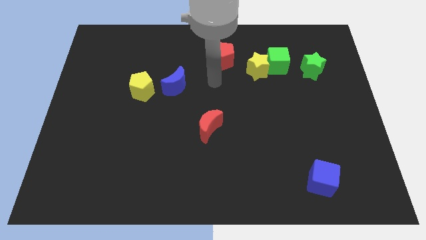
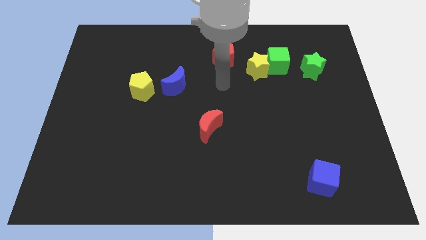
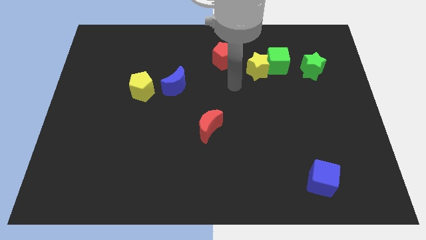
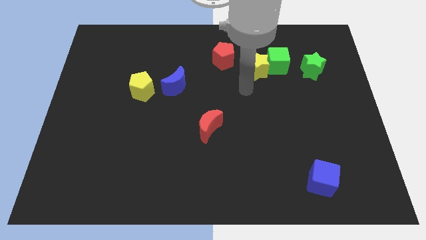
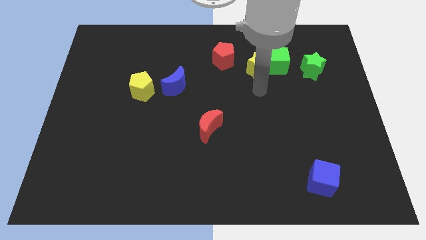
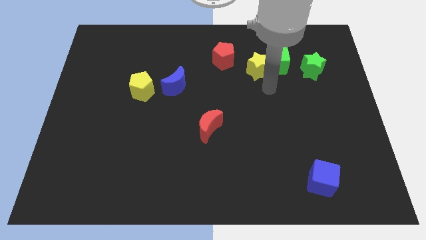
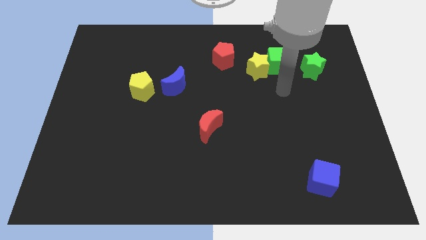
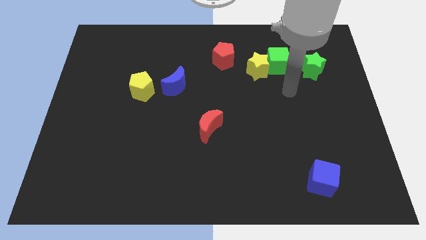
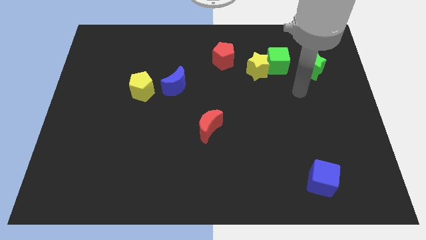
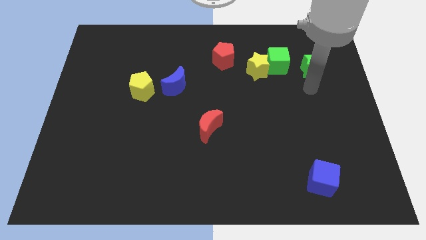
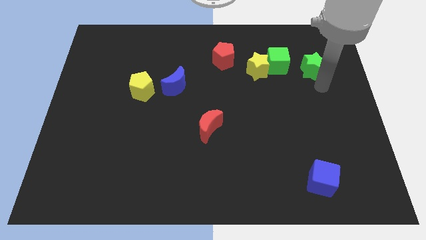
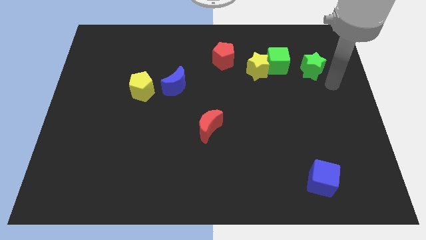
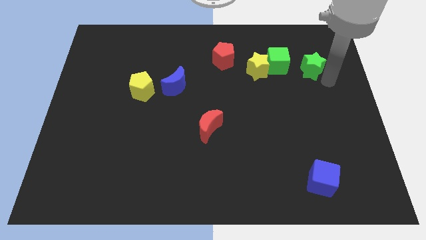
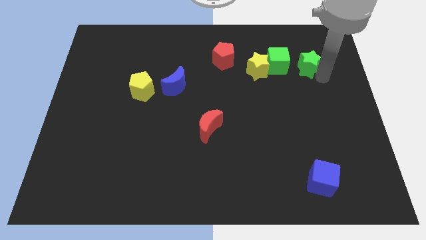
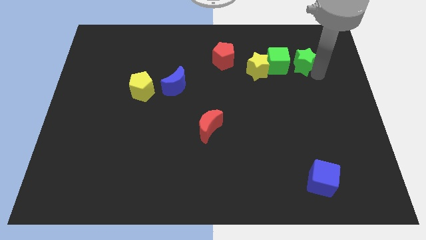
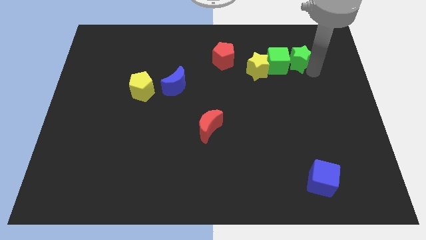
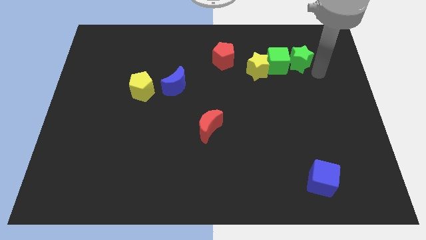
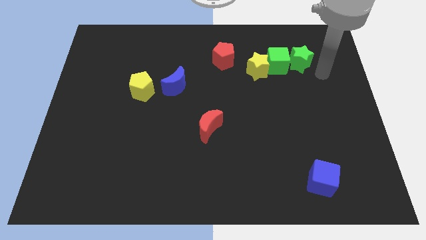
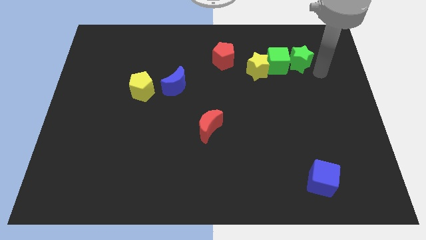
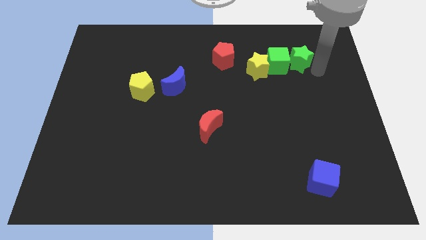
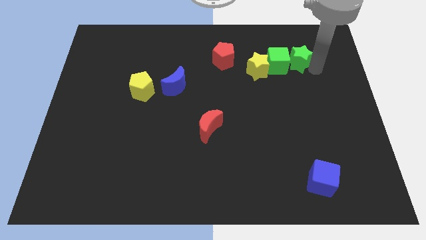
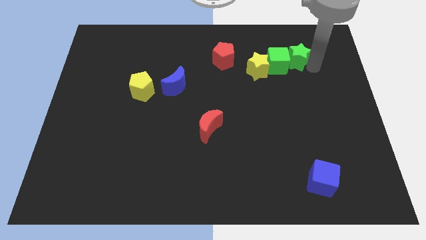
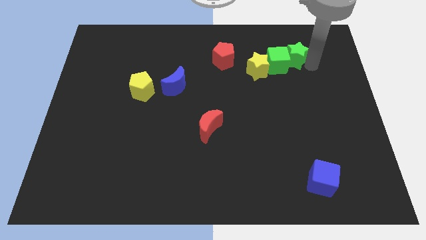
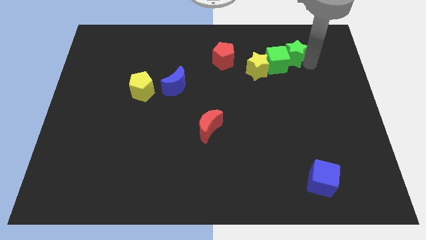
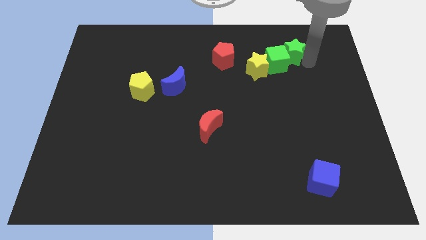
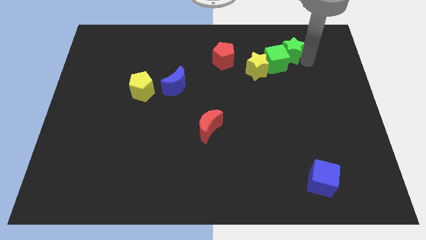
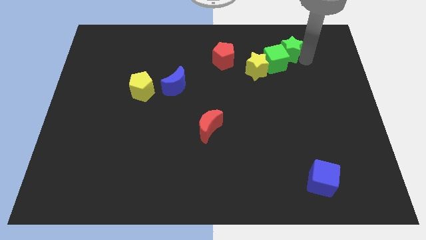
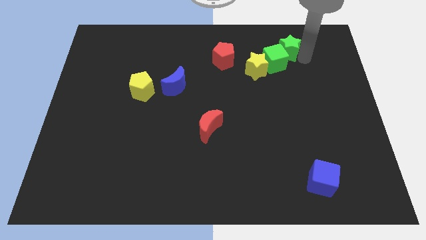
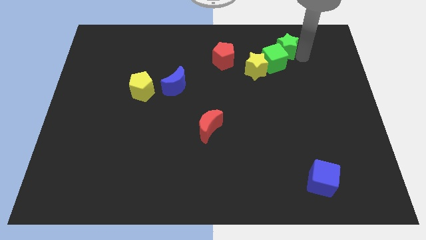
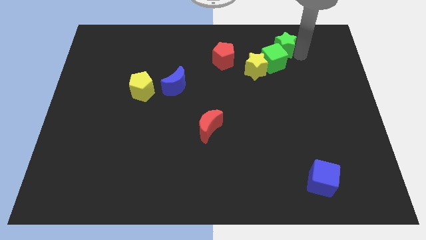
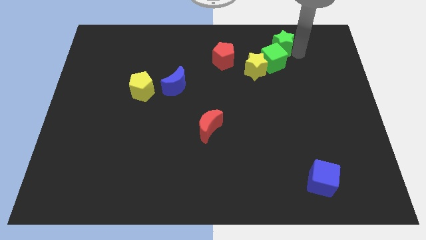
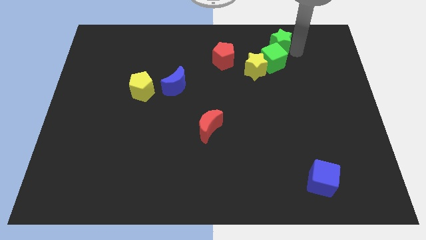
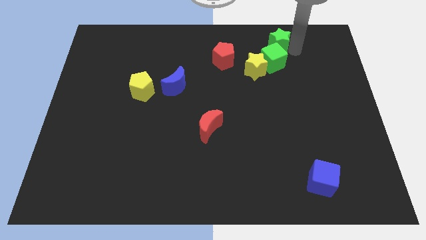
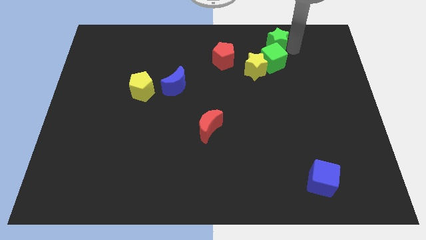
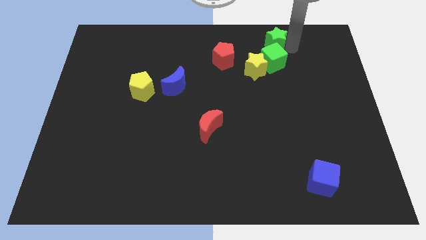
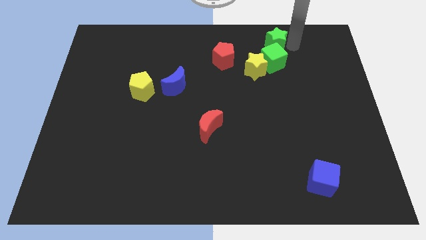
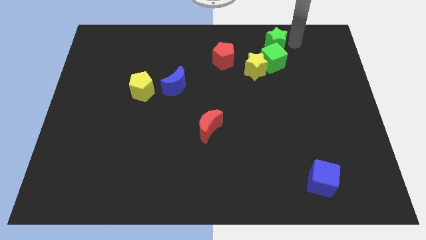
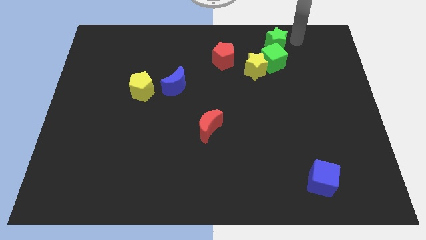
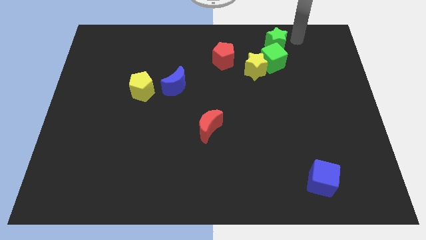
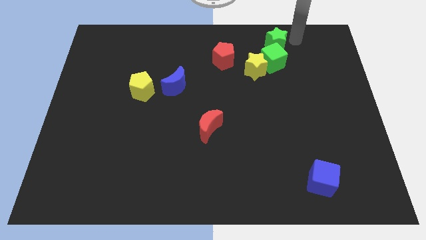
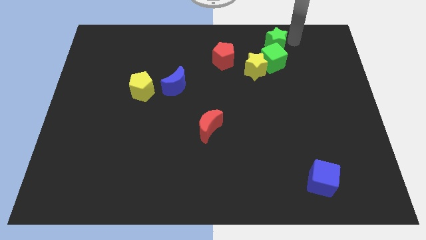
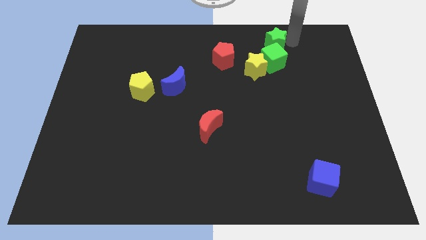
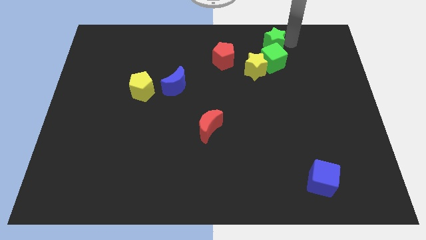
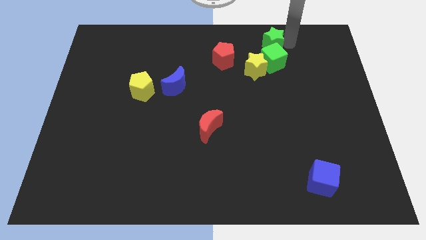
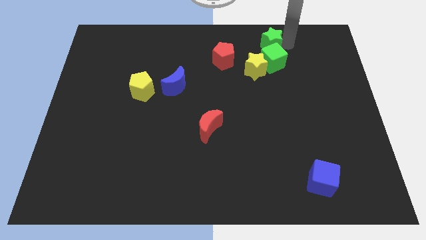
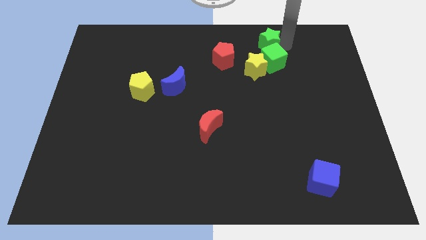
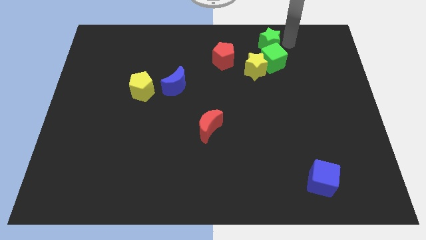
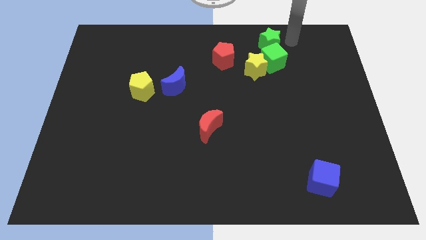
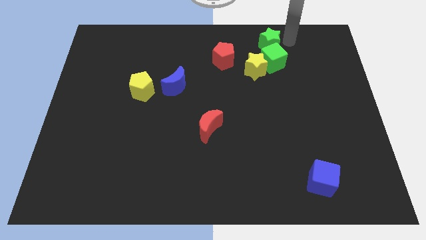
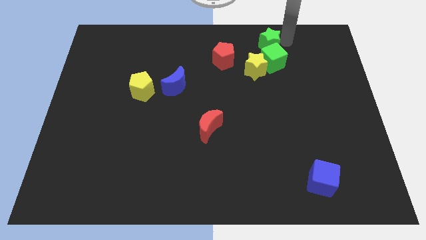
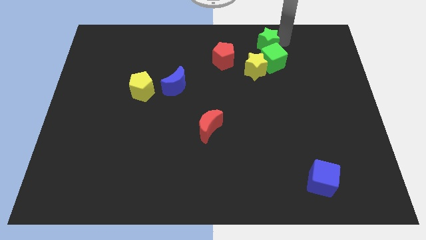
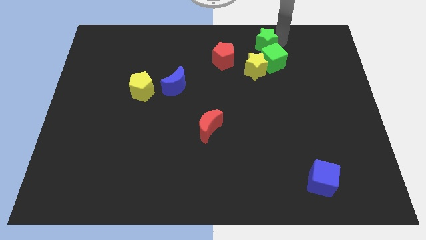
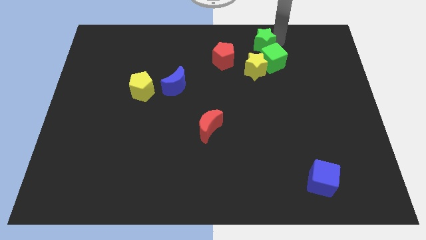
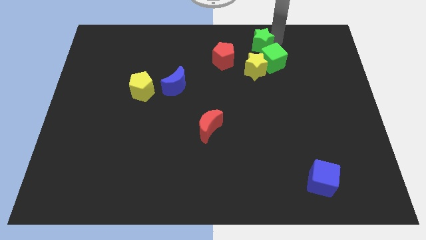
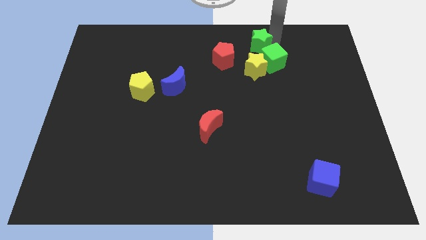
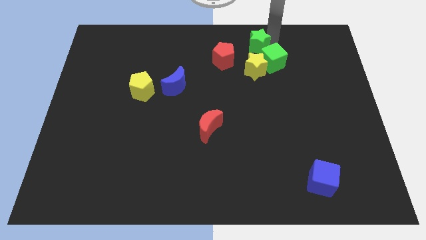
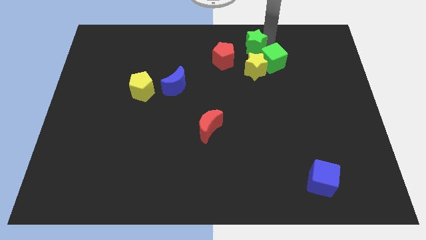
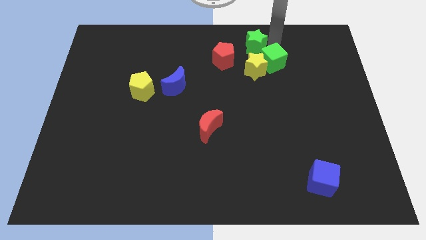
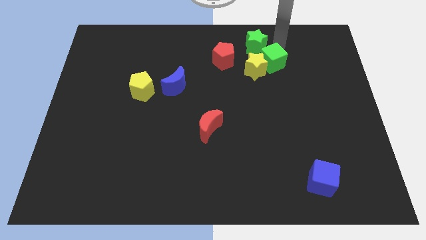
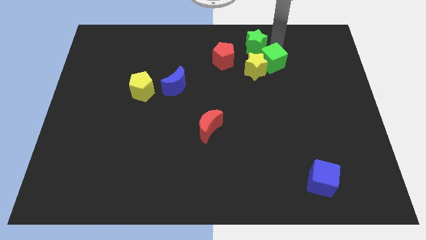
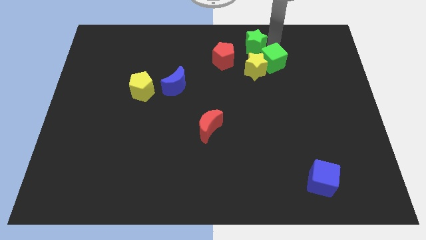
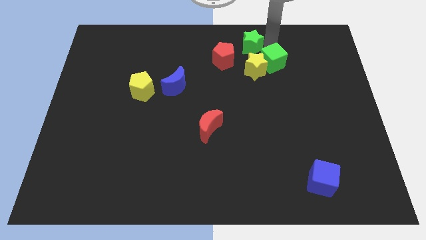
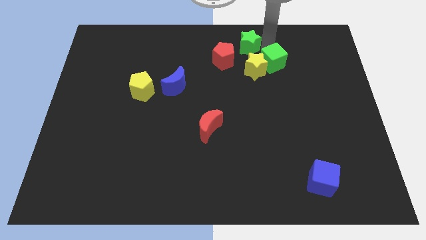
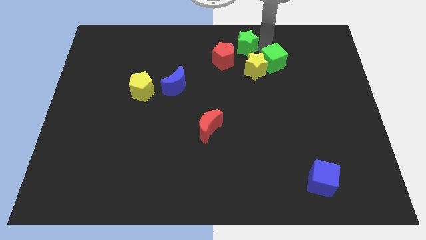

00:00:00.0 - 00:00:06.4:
move the green star to the top left side of the yellow star

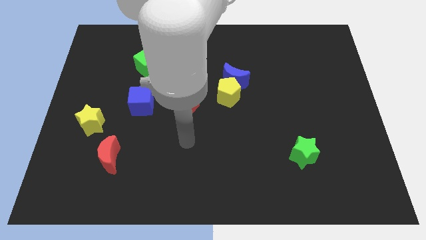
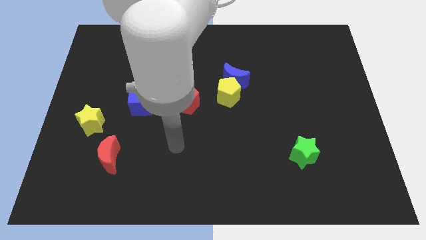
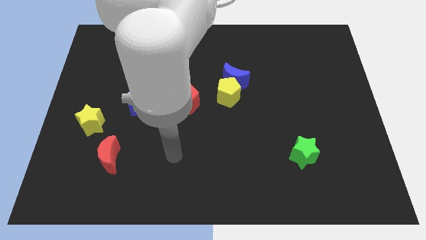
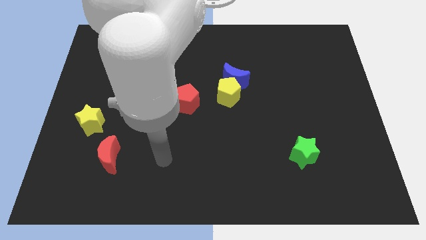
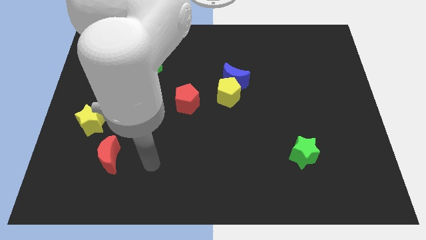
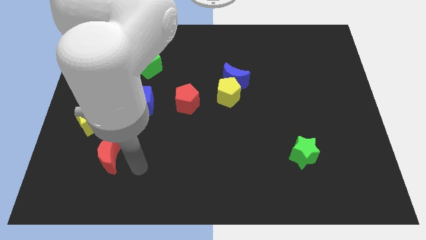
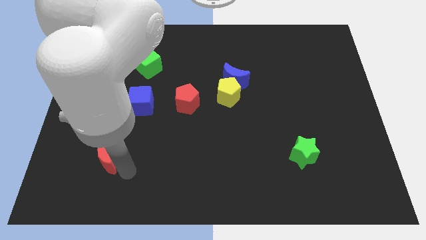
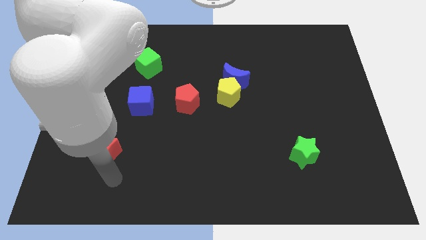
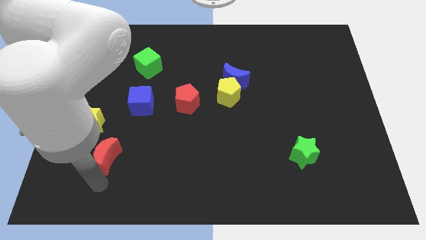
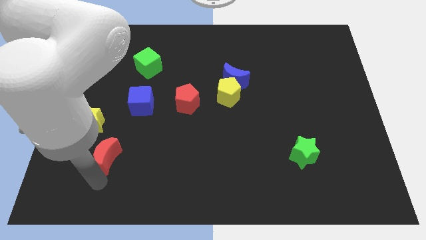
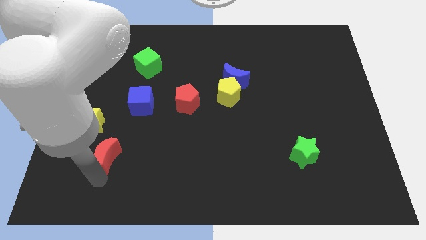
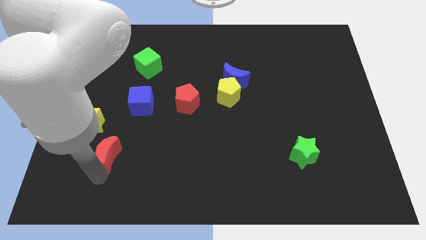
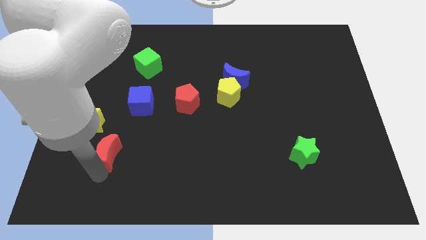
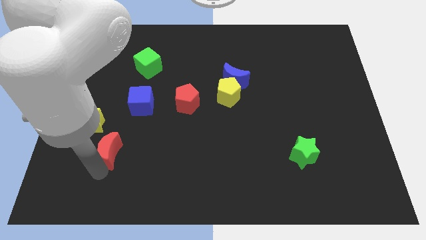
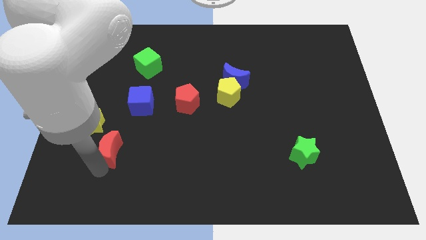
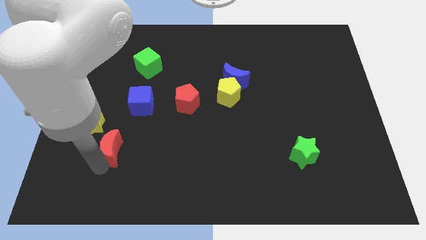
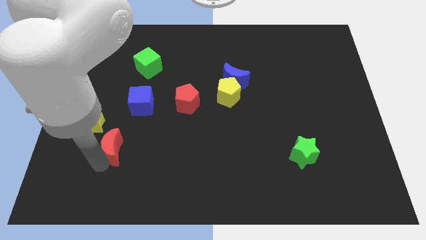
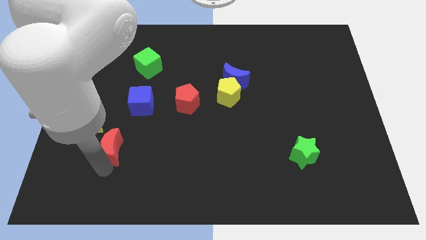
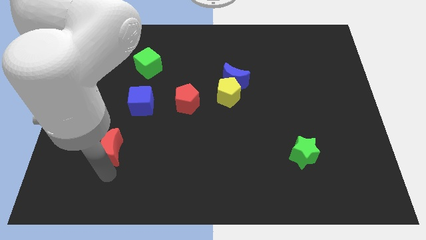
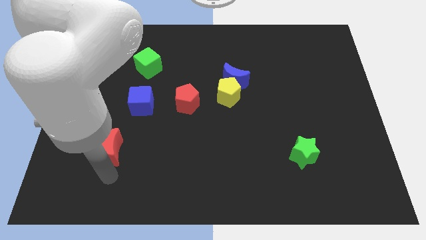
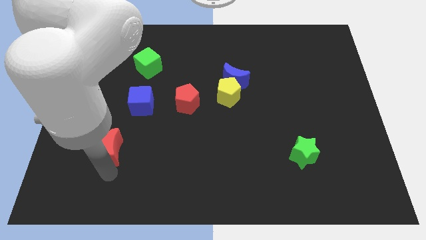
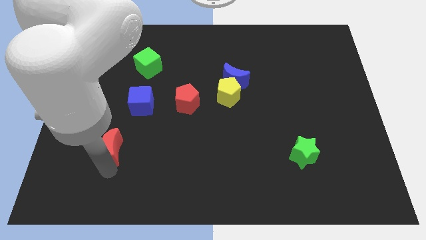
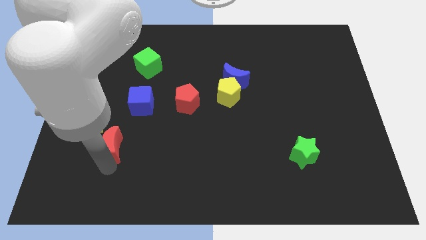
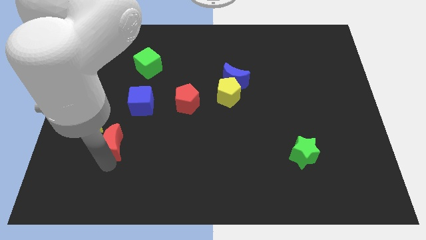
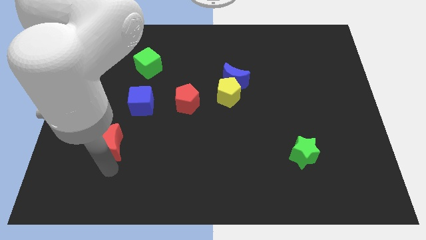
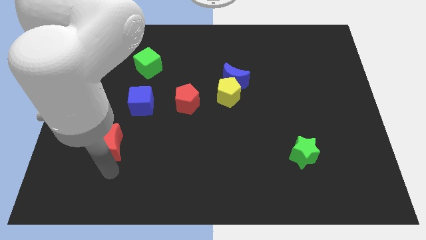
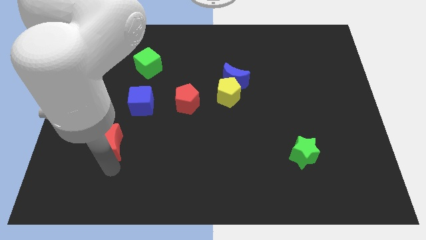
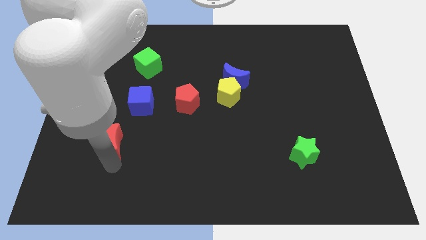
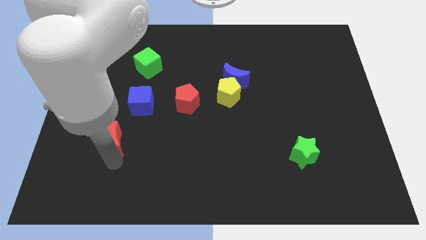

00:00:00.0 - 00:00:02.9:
move the red moon to the bottom left side of the blue cube
